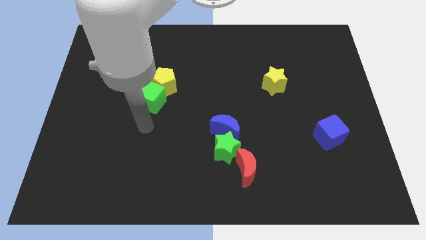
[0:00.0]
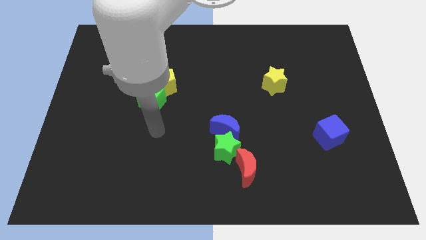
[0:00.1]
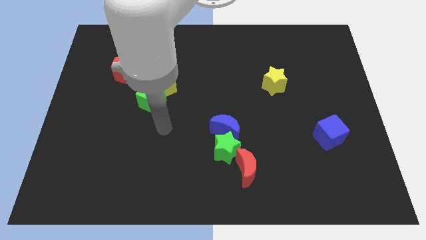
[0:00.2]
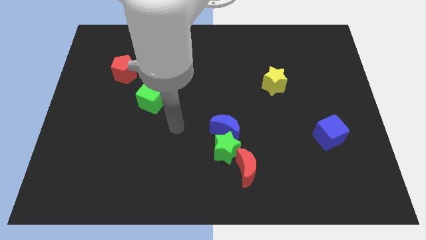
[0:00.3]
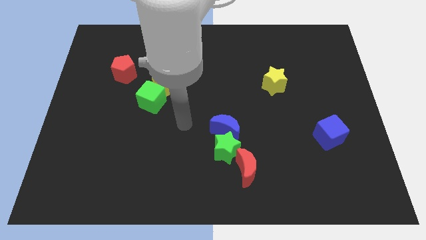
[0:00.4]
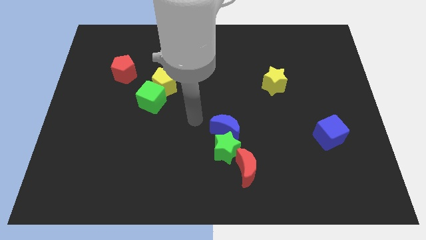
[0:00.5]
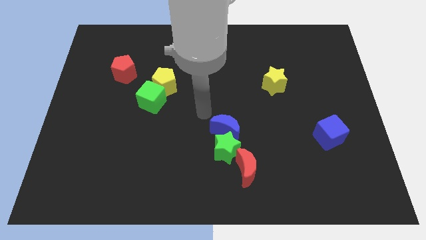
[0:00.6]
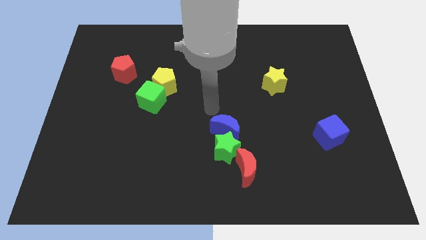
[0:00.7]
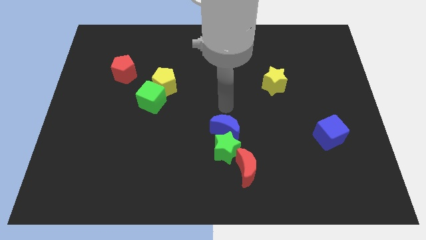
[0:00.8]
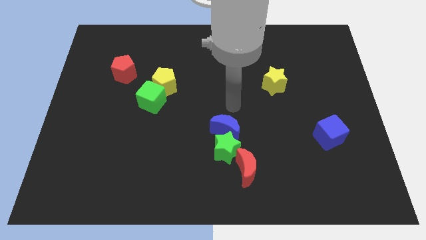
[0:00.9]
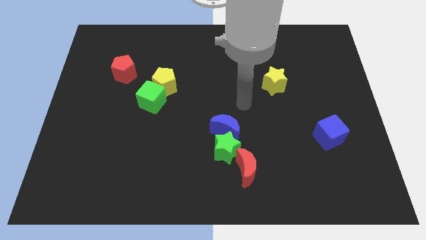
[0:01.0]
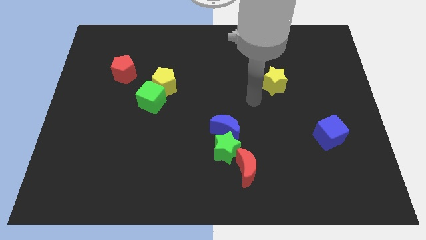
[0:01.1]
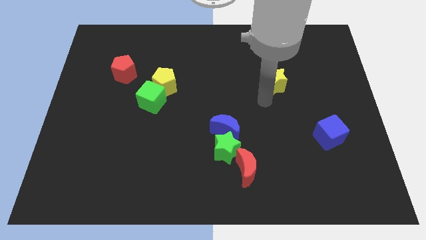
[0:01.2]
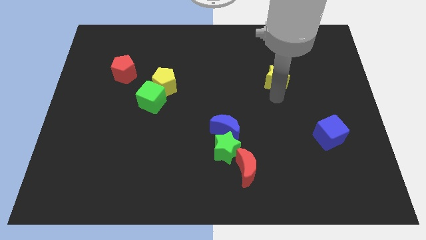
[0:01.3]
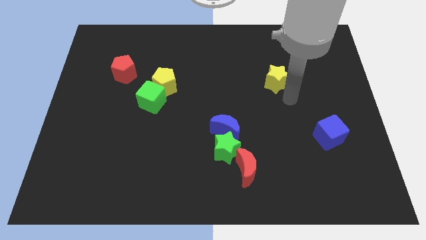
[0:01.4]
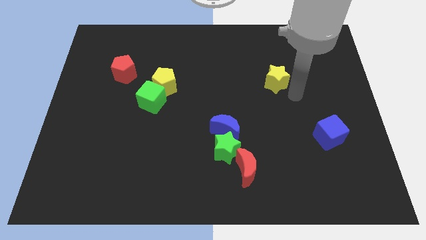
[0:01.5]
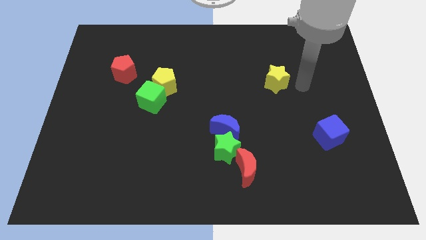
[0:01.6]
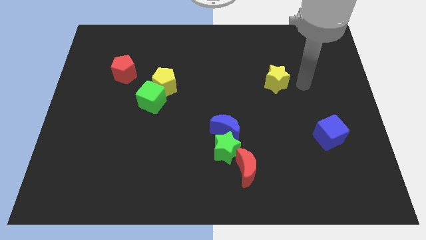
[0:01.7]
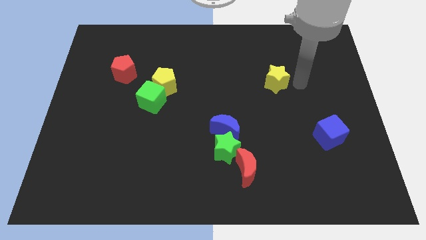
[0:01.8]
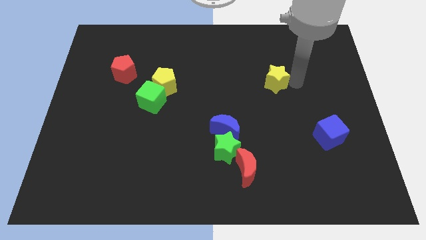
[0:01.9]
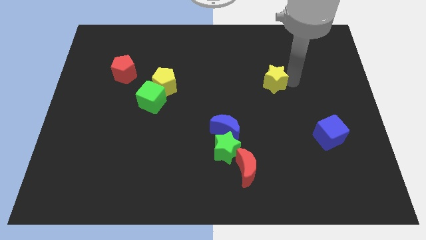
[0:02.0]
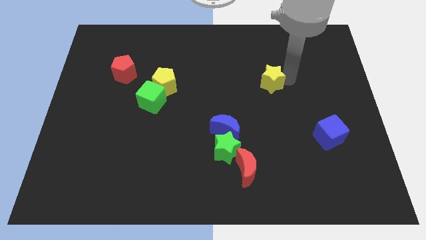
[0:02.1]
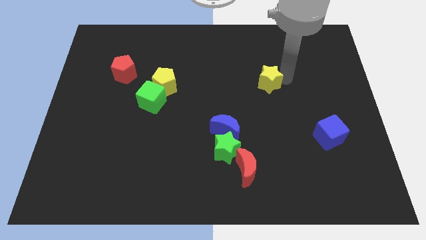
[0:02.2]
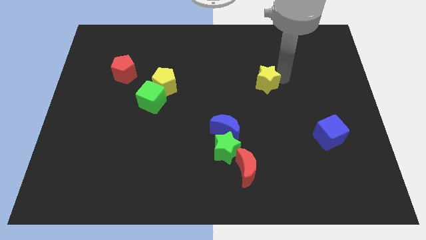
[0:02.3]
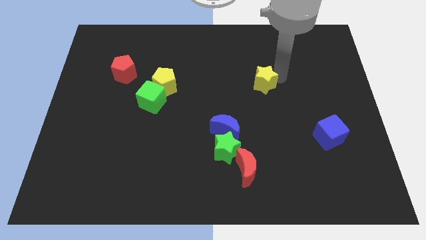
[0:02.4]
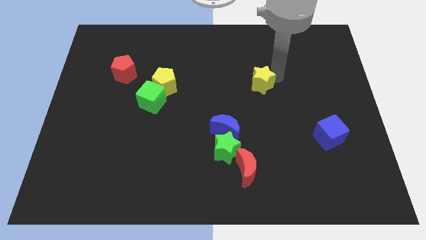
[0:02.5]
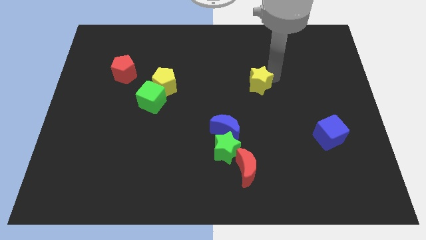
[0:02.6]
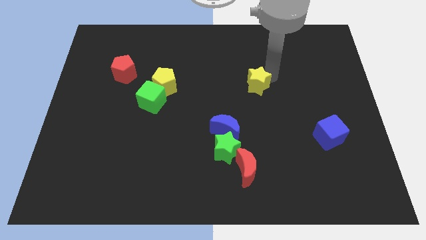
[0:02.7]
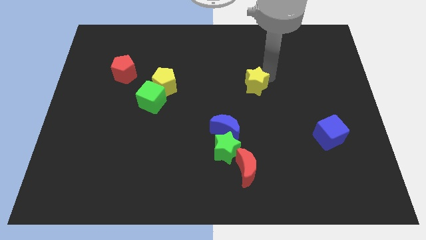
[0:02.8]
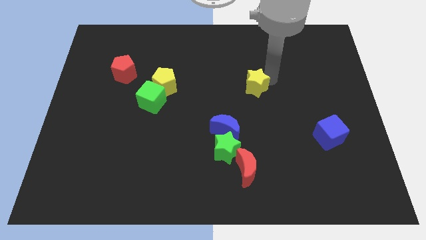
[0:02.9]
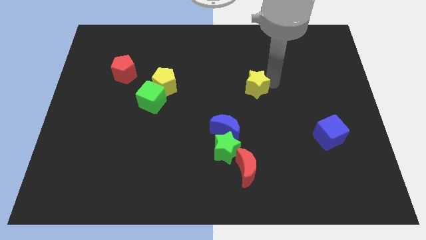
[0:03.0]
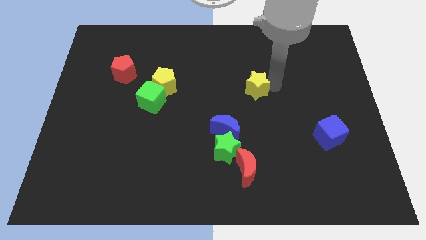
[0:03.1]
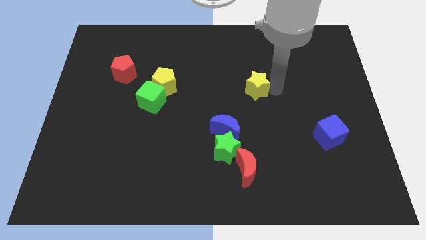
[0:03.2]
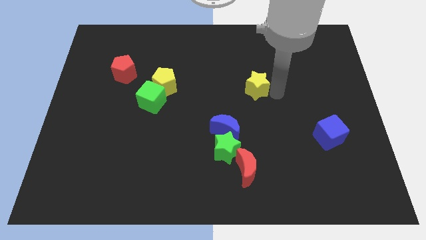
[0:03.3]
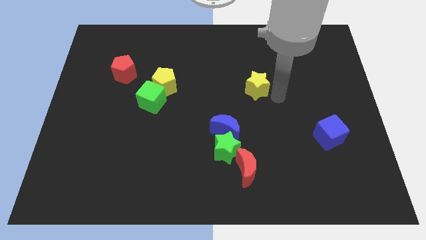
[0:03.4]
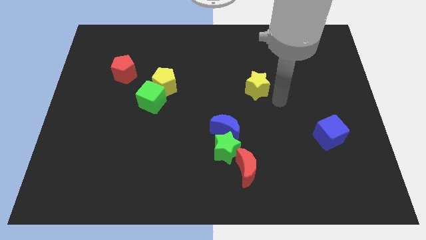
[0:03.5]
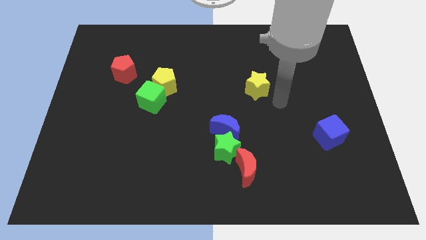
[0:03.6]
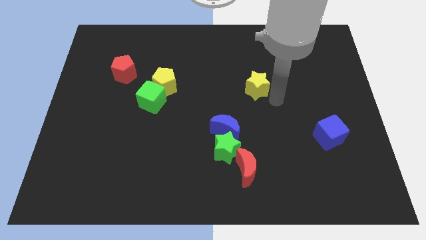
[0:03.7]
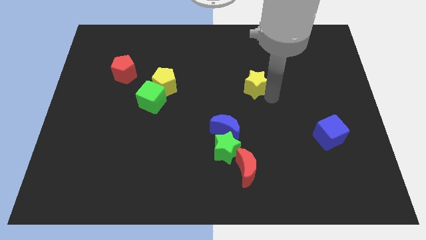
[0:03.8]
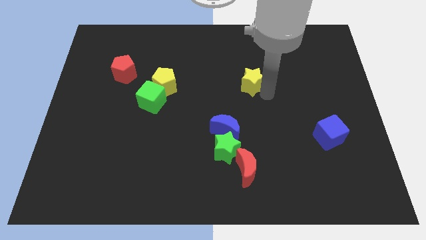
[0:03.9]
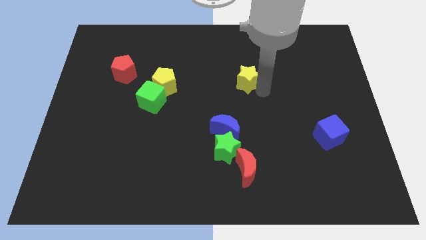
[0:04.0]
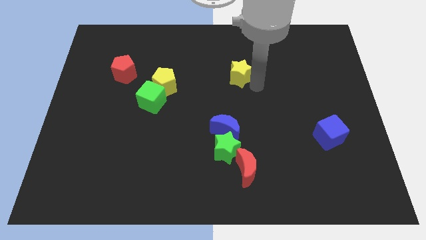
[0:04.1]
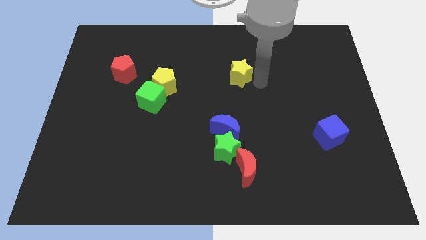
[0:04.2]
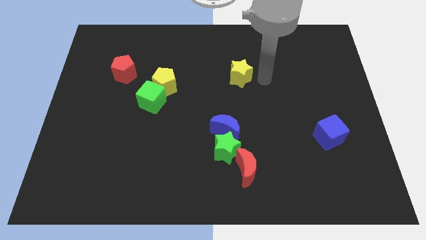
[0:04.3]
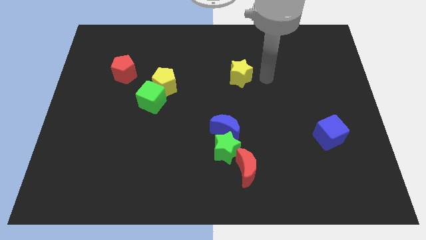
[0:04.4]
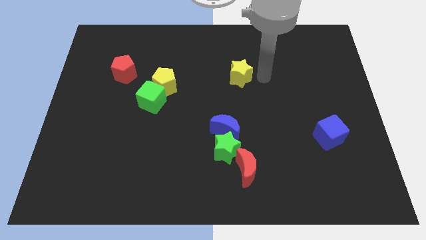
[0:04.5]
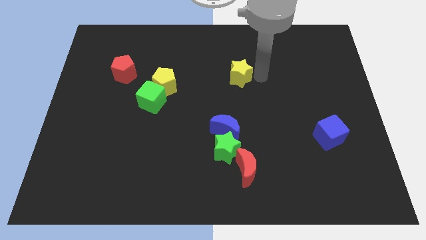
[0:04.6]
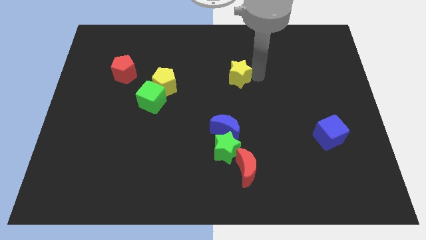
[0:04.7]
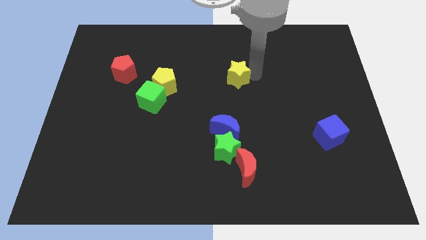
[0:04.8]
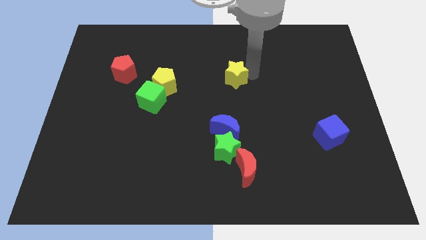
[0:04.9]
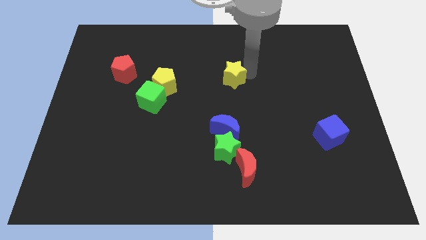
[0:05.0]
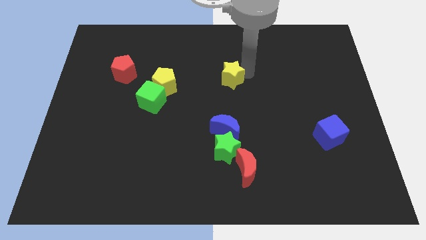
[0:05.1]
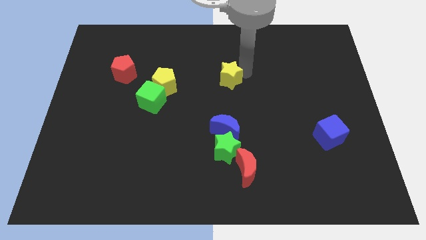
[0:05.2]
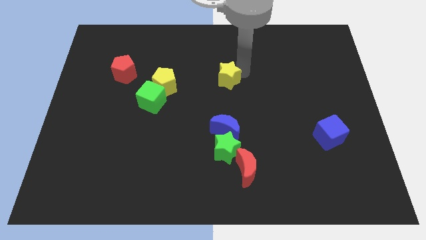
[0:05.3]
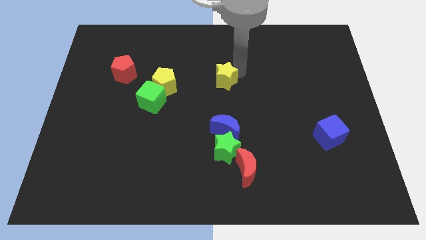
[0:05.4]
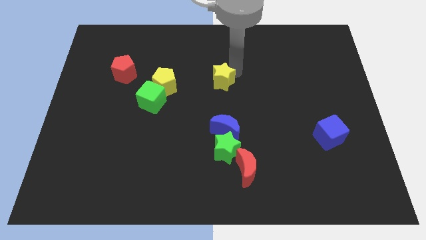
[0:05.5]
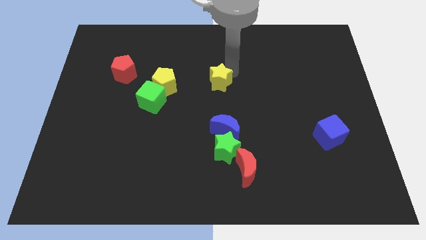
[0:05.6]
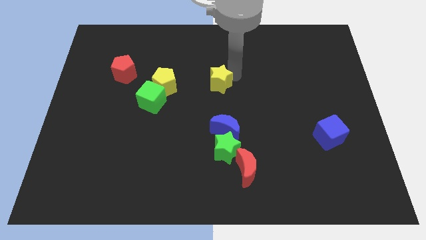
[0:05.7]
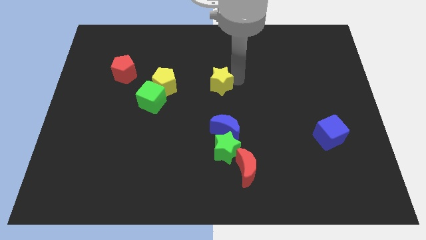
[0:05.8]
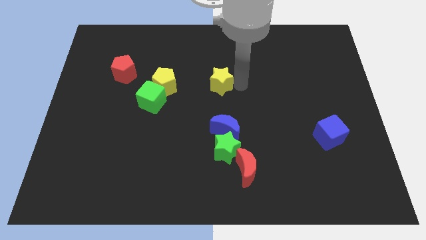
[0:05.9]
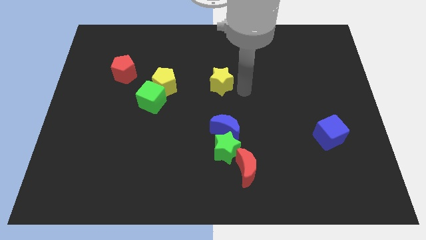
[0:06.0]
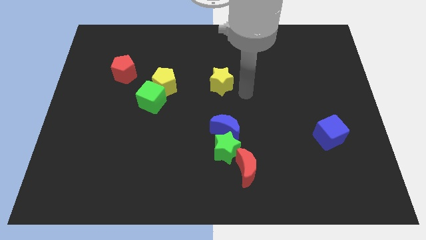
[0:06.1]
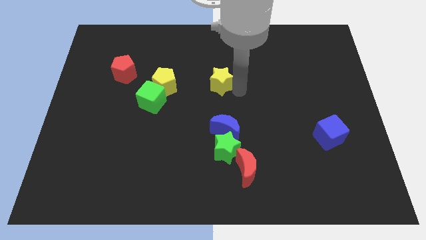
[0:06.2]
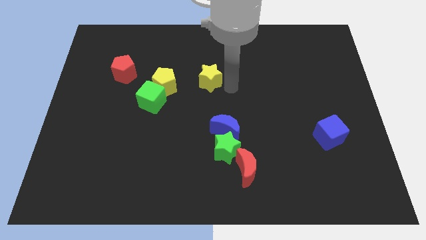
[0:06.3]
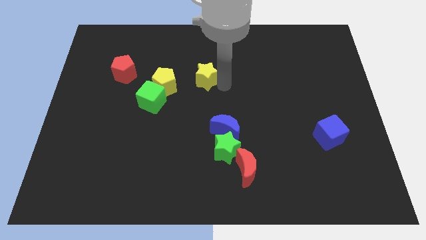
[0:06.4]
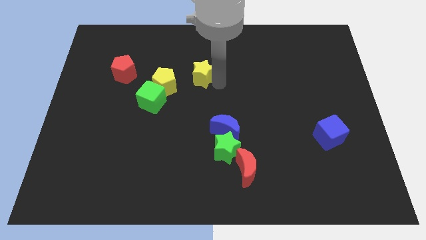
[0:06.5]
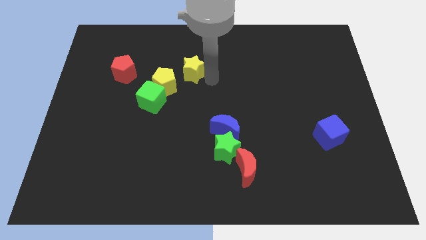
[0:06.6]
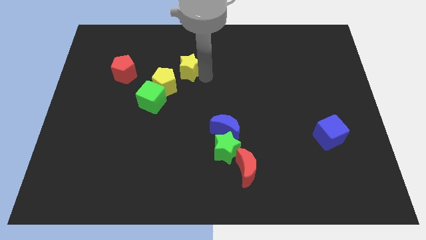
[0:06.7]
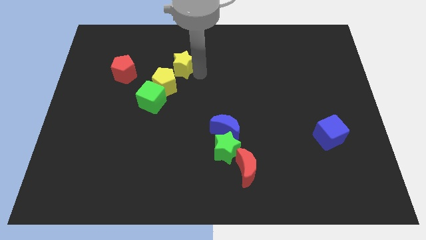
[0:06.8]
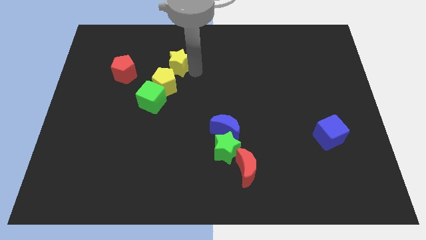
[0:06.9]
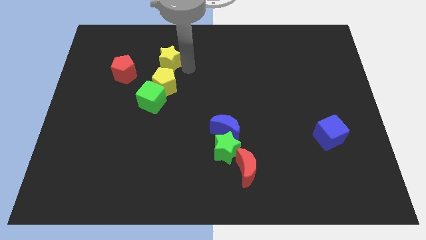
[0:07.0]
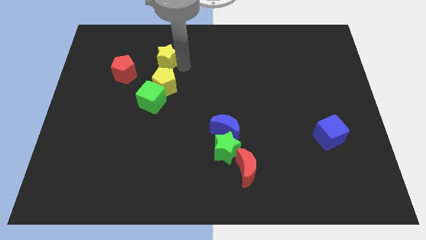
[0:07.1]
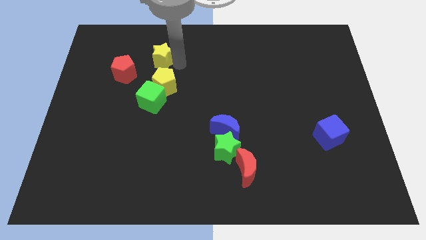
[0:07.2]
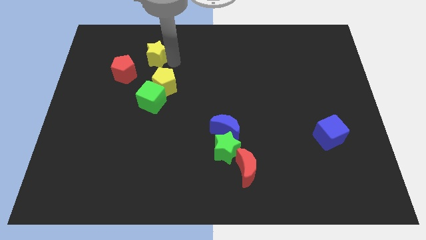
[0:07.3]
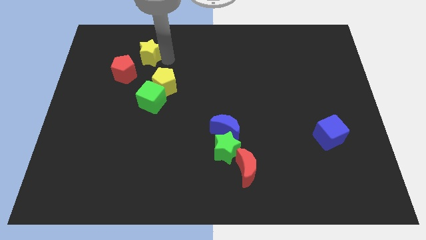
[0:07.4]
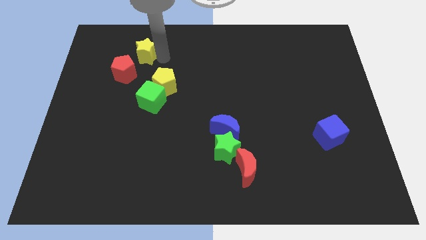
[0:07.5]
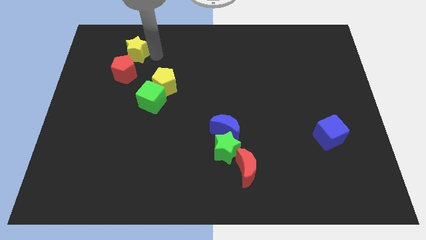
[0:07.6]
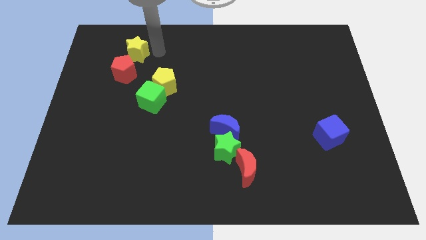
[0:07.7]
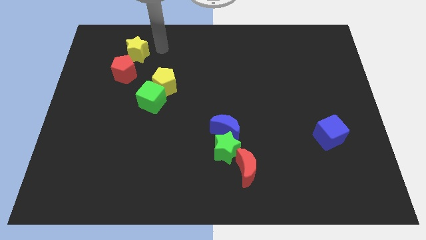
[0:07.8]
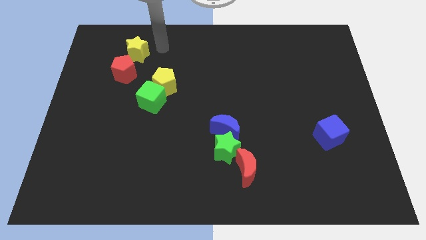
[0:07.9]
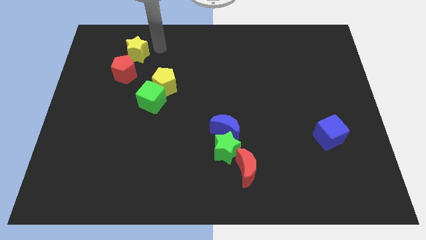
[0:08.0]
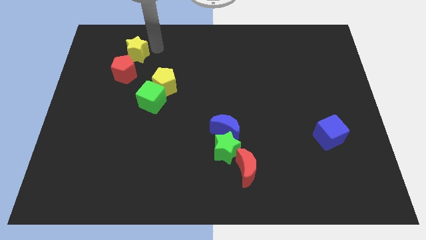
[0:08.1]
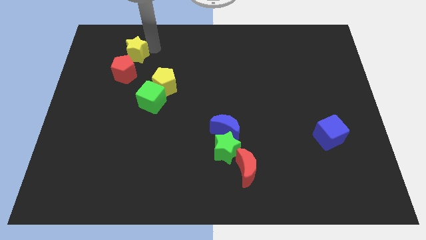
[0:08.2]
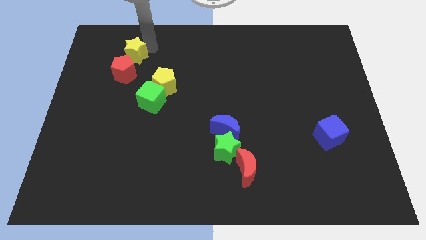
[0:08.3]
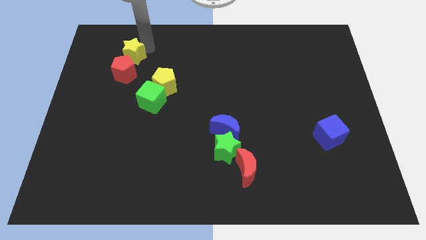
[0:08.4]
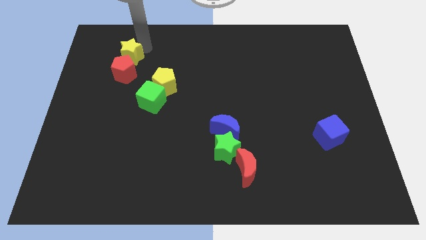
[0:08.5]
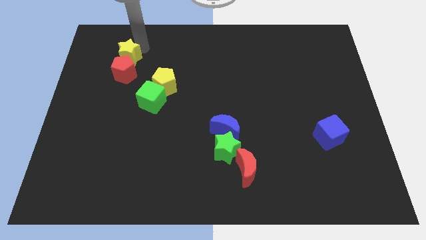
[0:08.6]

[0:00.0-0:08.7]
slide the yellow star to the top left of the red pentagon
